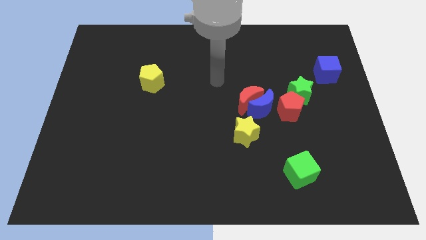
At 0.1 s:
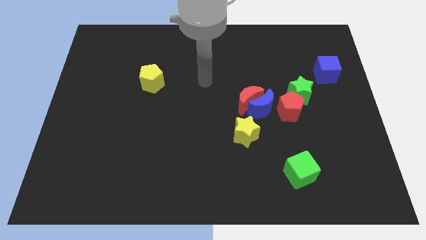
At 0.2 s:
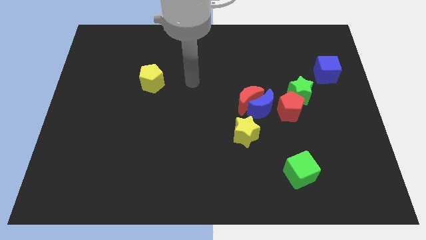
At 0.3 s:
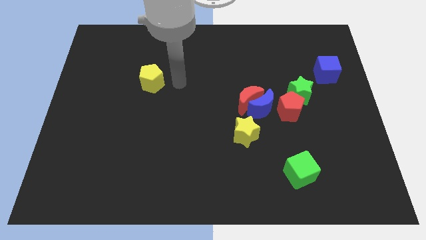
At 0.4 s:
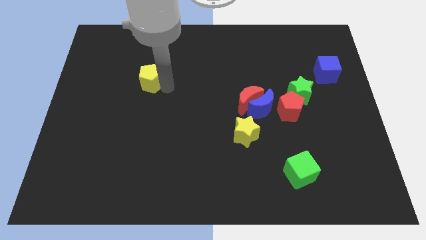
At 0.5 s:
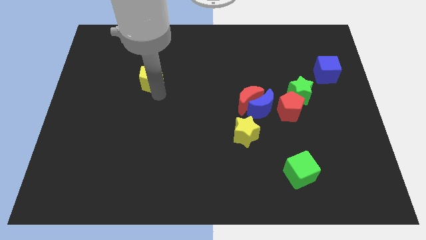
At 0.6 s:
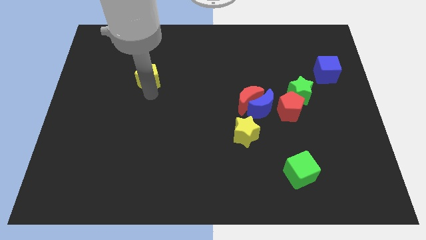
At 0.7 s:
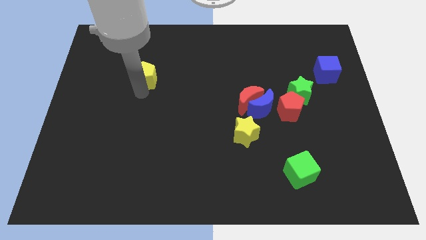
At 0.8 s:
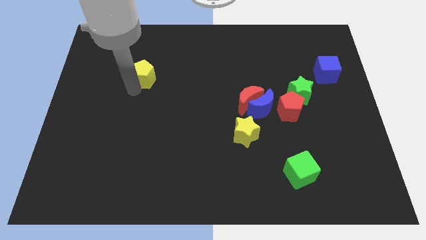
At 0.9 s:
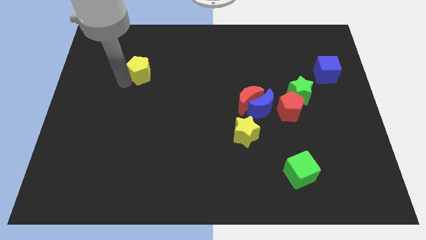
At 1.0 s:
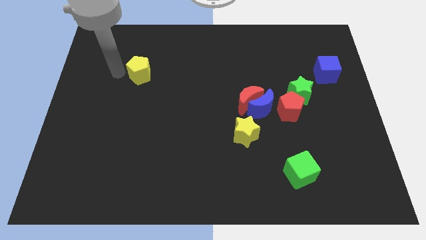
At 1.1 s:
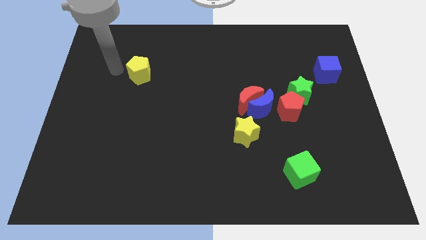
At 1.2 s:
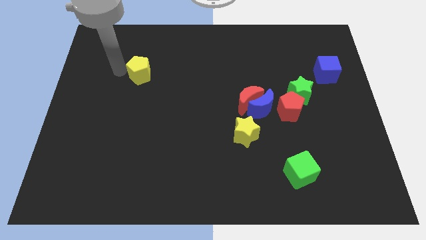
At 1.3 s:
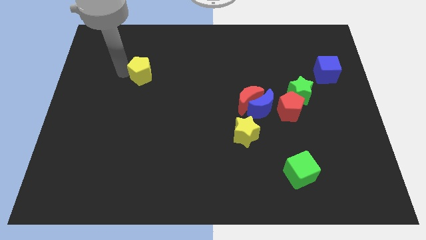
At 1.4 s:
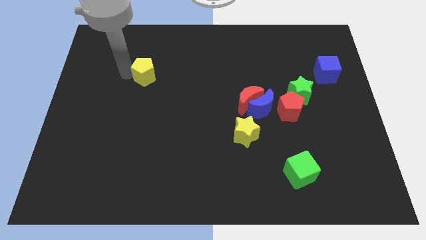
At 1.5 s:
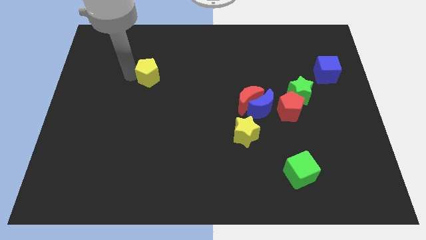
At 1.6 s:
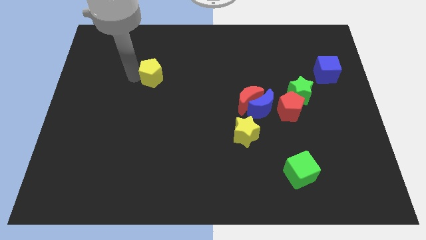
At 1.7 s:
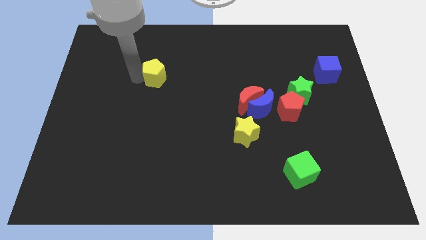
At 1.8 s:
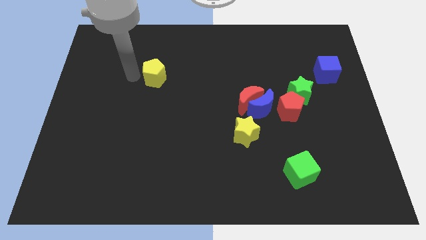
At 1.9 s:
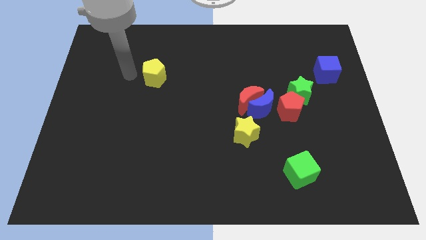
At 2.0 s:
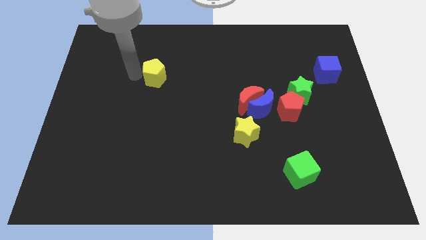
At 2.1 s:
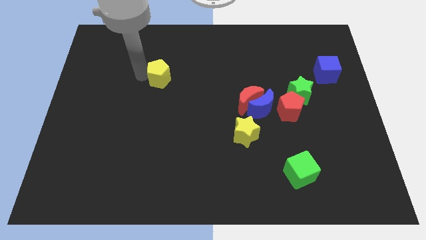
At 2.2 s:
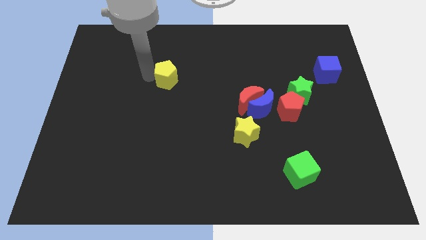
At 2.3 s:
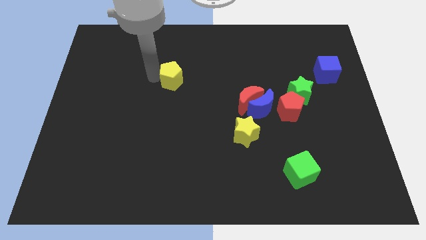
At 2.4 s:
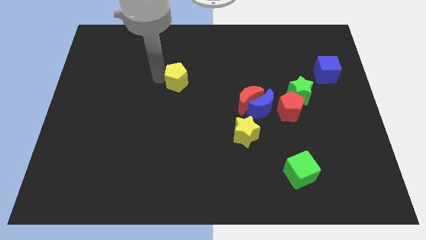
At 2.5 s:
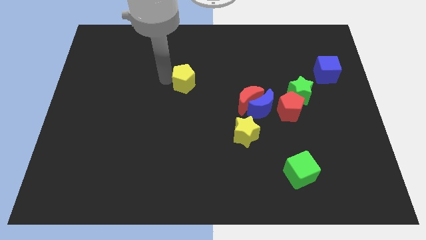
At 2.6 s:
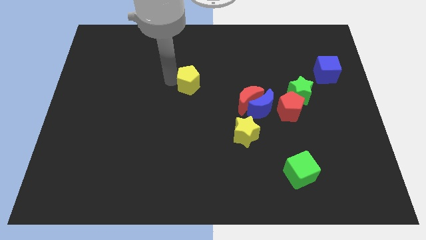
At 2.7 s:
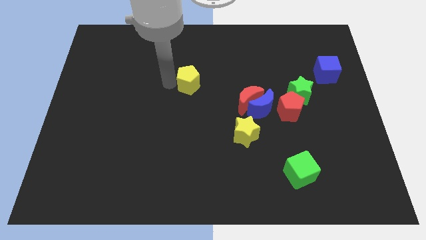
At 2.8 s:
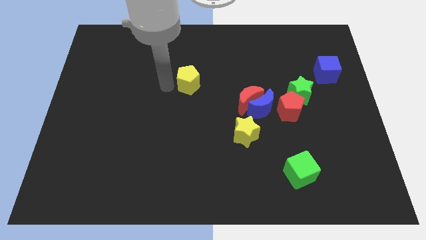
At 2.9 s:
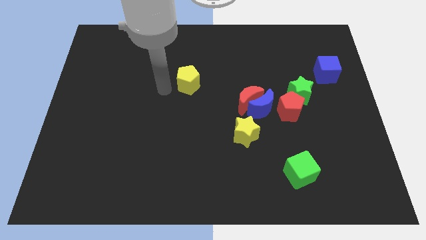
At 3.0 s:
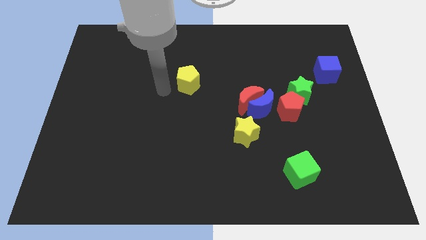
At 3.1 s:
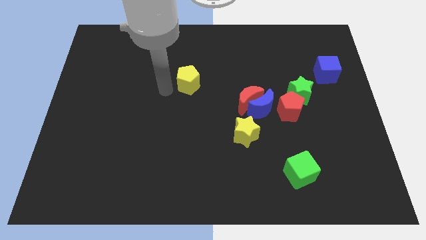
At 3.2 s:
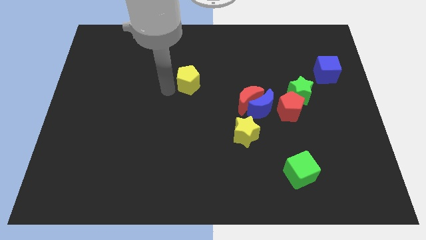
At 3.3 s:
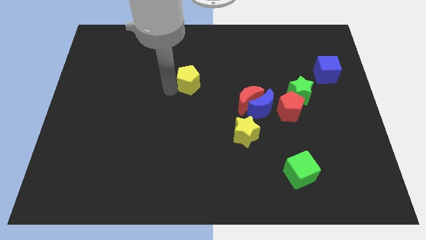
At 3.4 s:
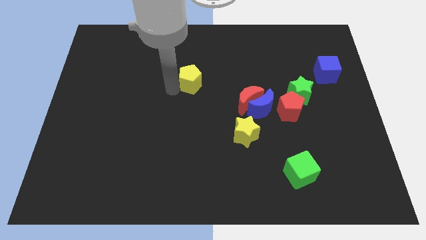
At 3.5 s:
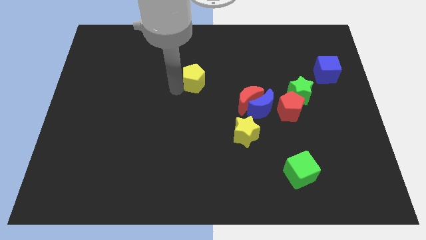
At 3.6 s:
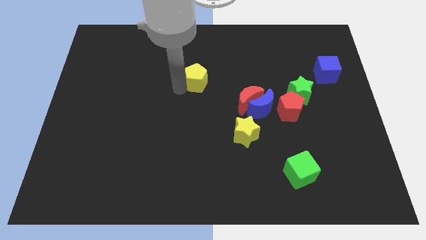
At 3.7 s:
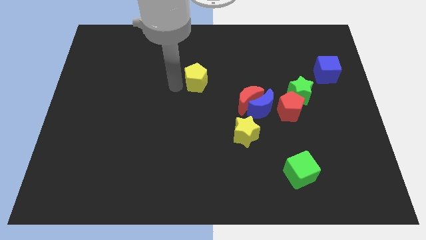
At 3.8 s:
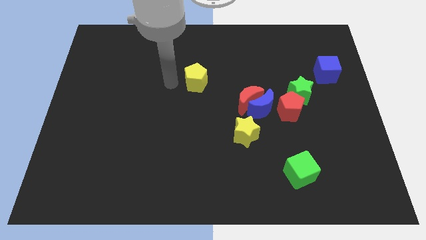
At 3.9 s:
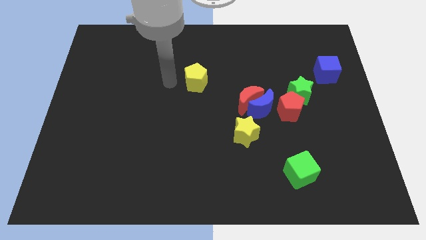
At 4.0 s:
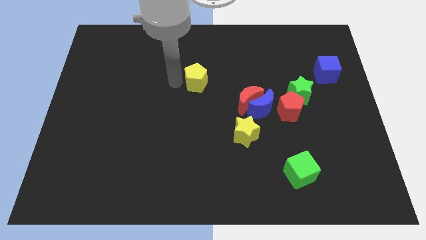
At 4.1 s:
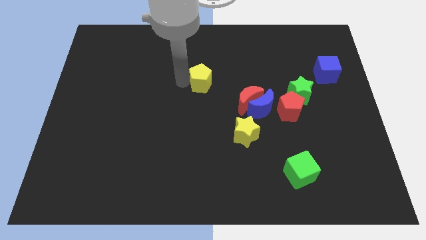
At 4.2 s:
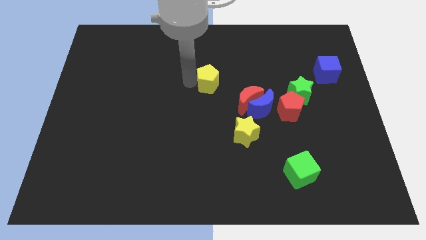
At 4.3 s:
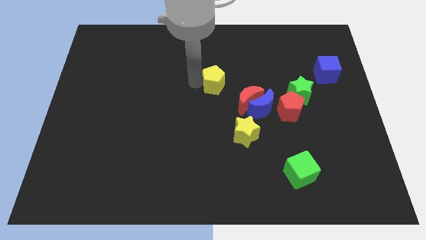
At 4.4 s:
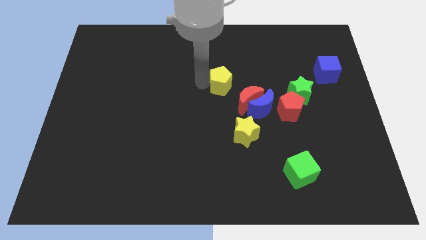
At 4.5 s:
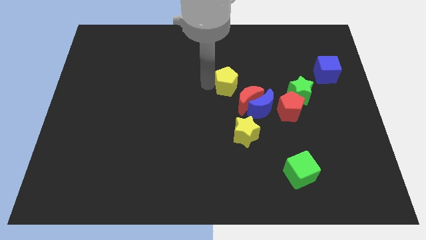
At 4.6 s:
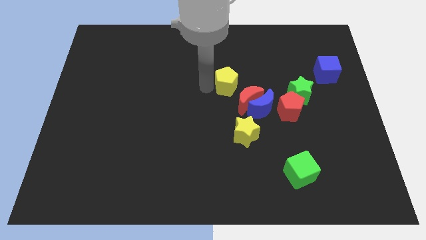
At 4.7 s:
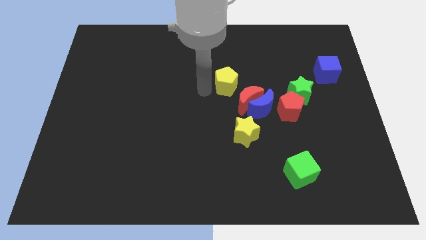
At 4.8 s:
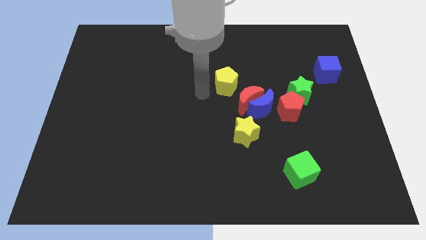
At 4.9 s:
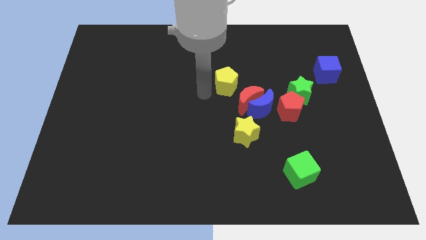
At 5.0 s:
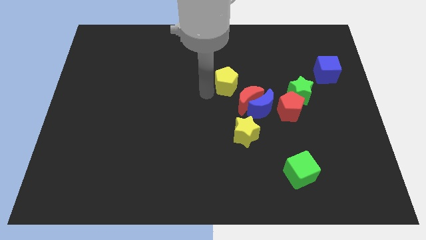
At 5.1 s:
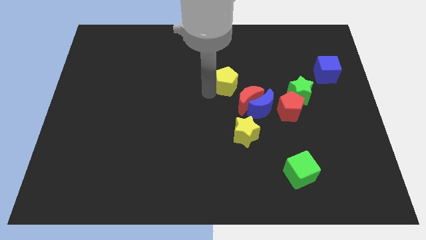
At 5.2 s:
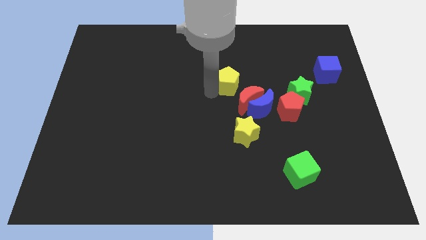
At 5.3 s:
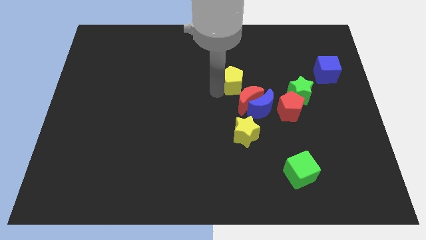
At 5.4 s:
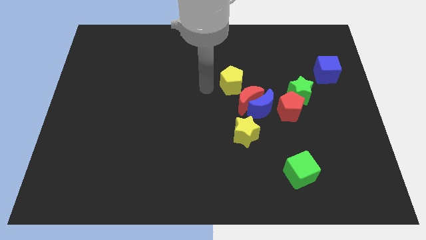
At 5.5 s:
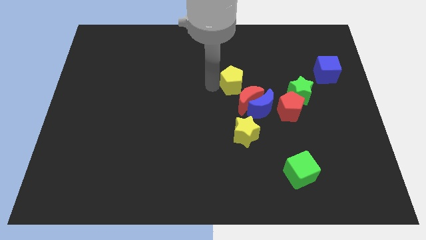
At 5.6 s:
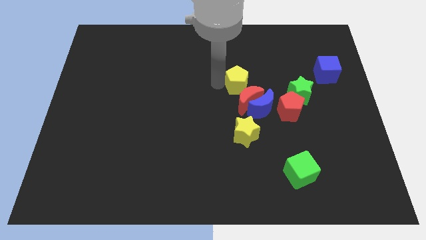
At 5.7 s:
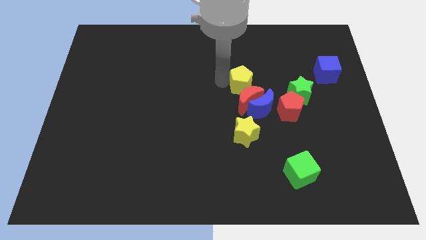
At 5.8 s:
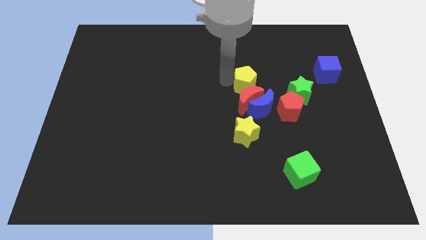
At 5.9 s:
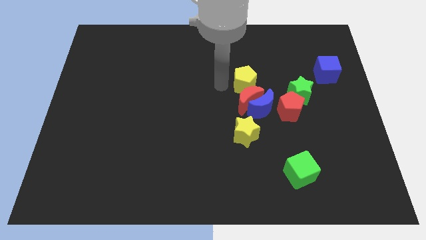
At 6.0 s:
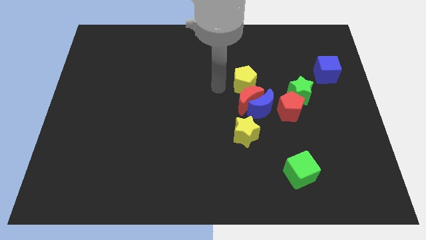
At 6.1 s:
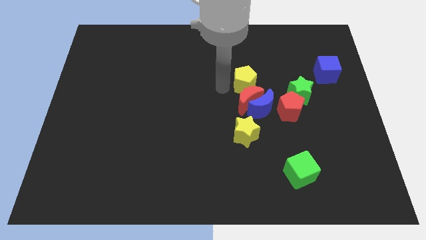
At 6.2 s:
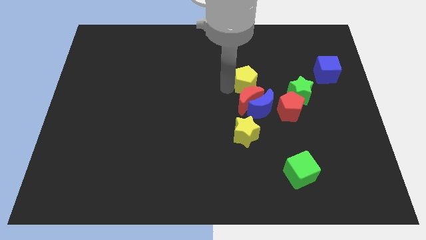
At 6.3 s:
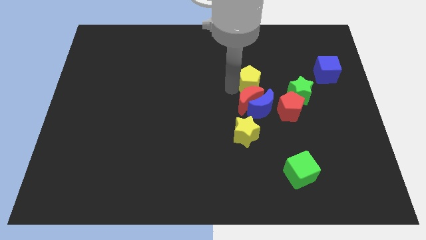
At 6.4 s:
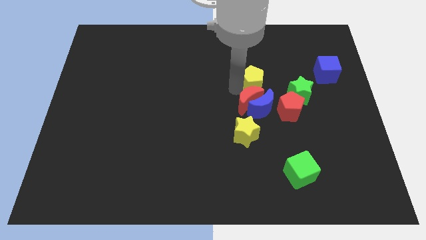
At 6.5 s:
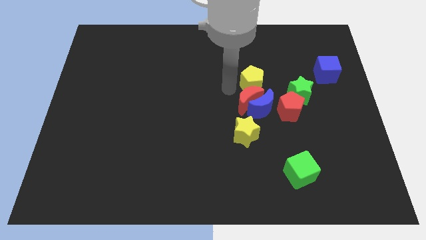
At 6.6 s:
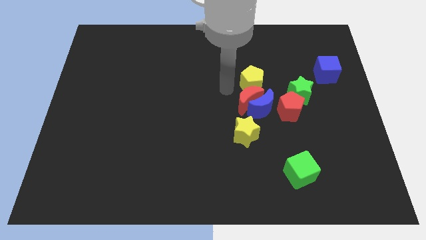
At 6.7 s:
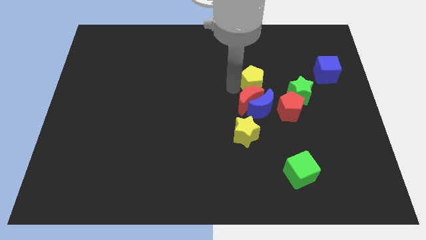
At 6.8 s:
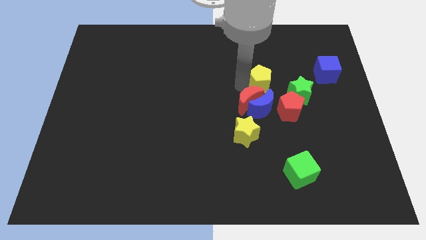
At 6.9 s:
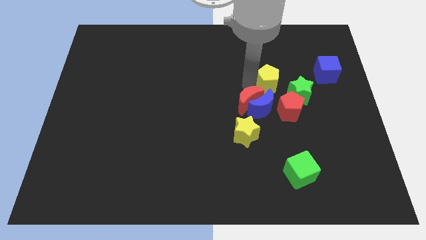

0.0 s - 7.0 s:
slide the yellow pentagon above the red pentagon

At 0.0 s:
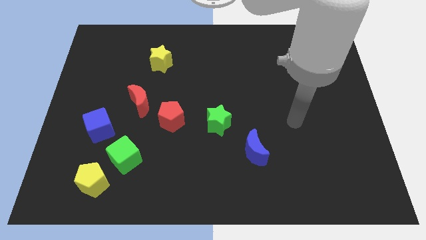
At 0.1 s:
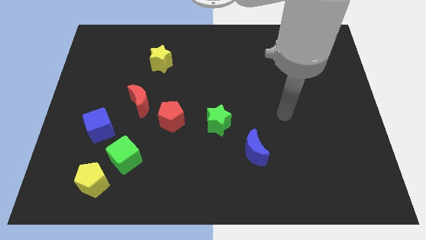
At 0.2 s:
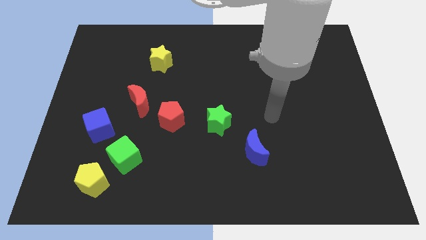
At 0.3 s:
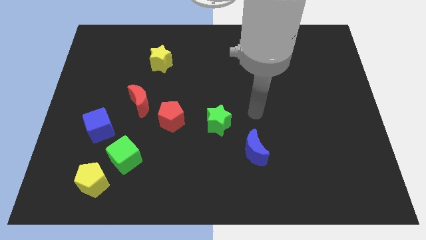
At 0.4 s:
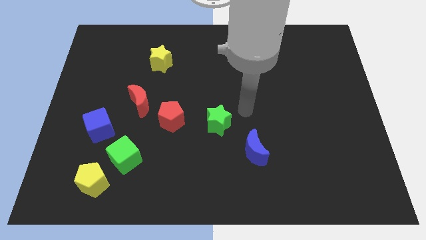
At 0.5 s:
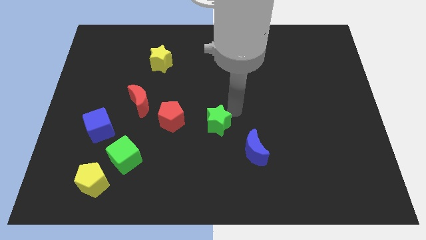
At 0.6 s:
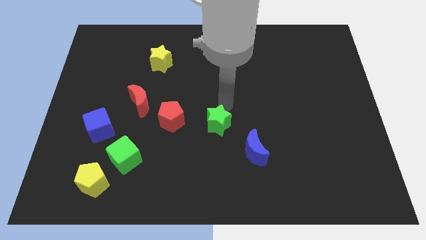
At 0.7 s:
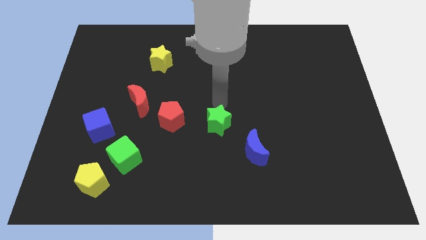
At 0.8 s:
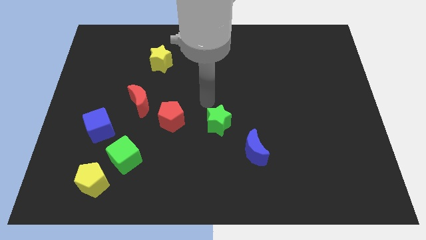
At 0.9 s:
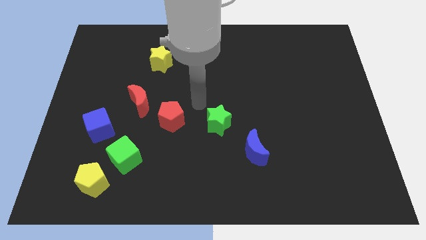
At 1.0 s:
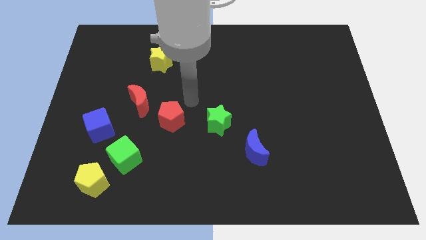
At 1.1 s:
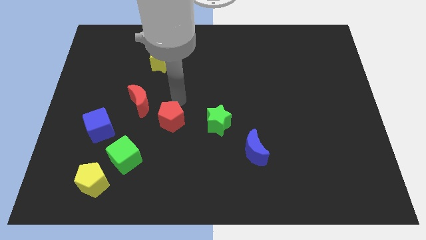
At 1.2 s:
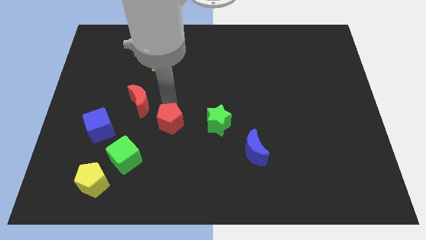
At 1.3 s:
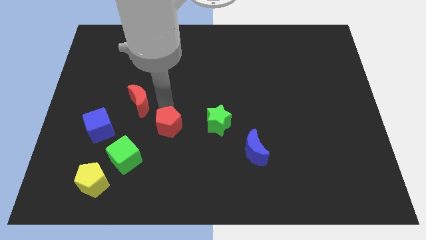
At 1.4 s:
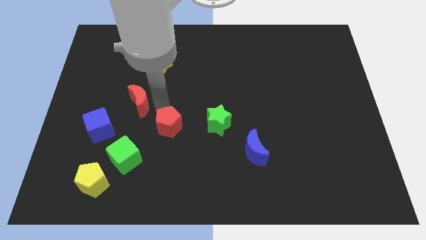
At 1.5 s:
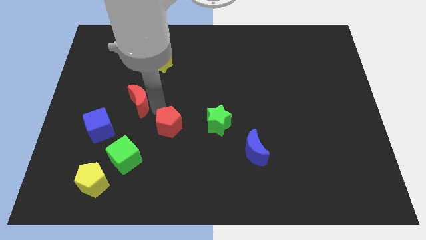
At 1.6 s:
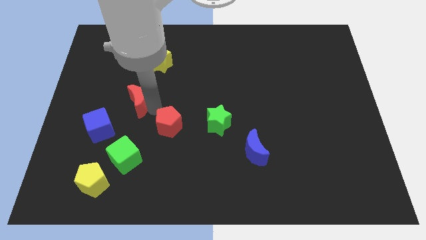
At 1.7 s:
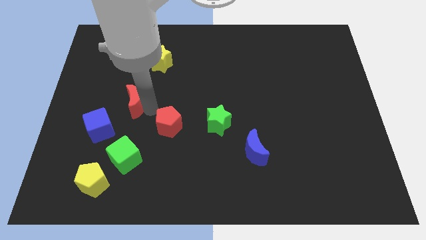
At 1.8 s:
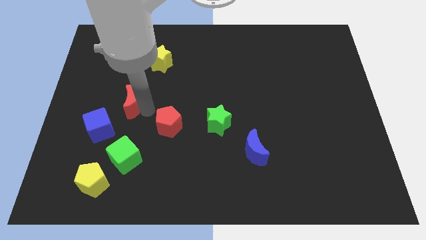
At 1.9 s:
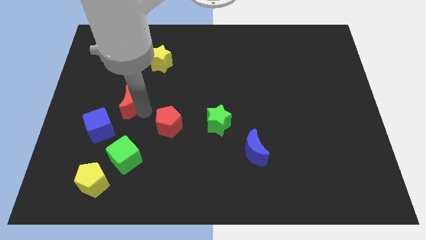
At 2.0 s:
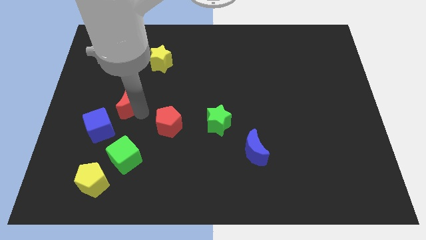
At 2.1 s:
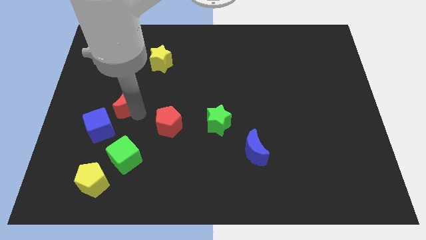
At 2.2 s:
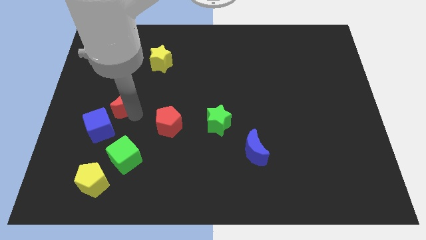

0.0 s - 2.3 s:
move the red moon to the top of the blue cube
